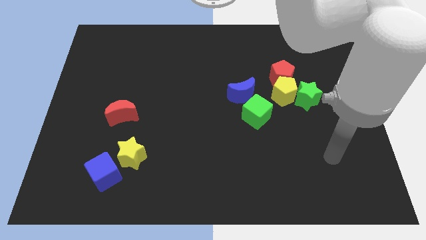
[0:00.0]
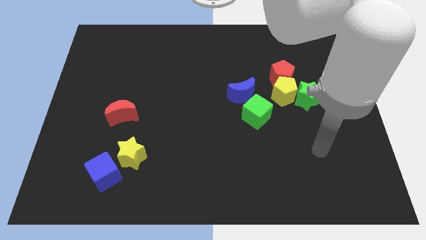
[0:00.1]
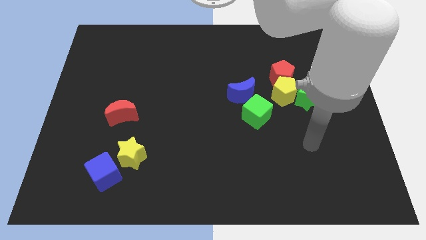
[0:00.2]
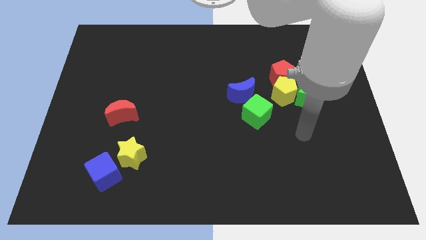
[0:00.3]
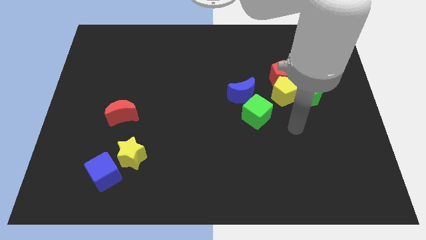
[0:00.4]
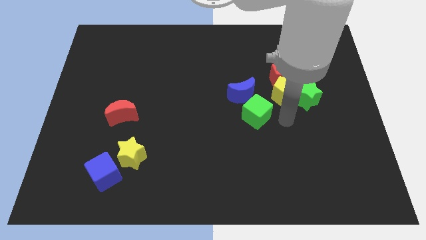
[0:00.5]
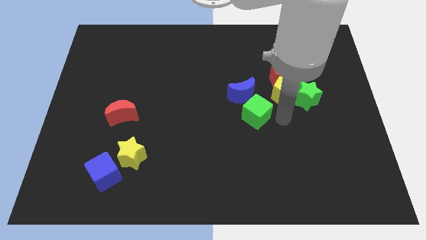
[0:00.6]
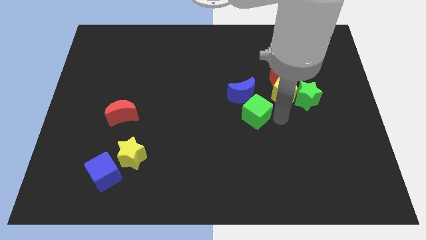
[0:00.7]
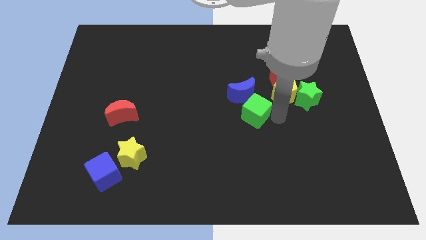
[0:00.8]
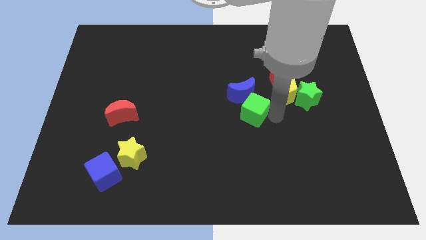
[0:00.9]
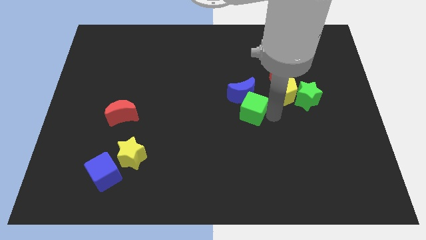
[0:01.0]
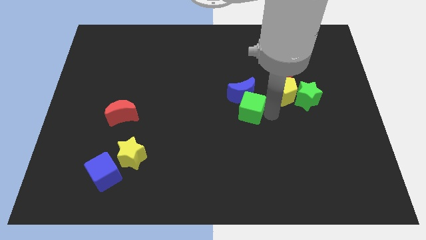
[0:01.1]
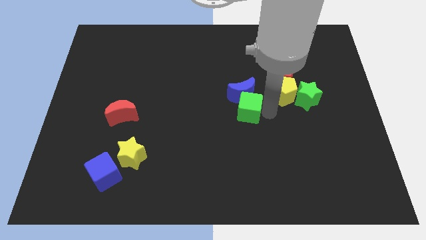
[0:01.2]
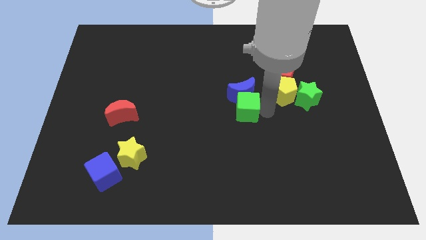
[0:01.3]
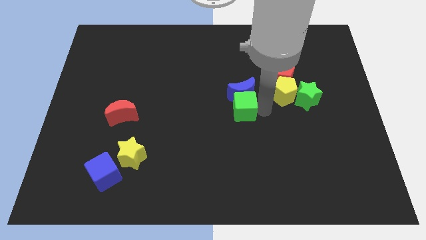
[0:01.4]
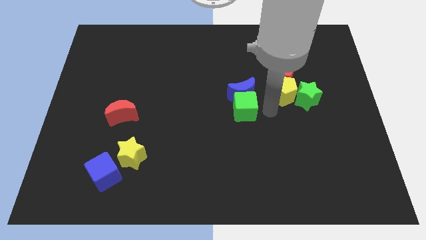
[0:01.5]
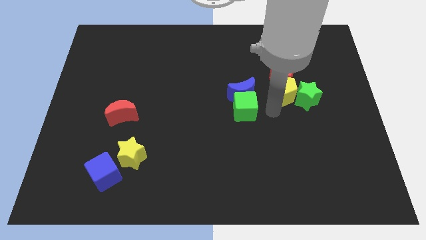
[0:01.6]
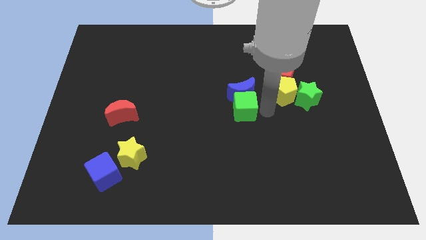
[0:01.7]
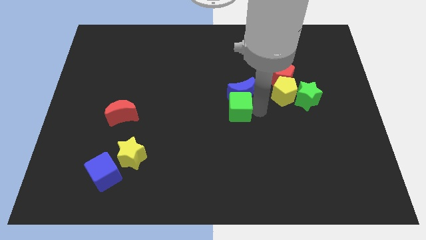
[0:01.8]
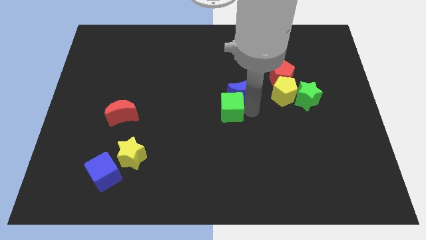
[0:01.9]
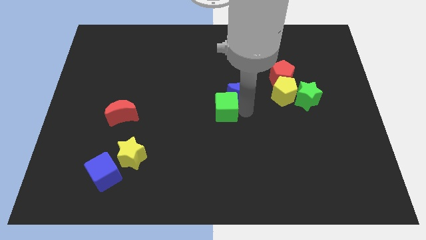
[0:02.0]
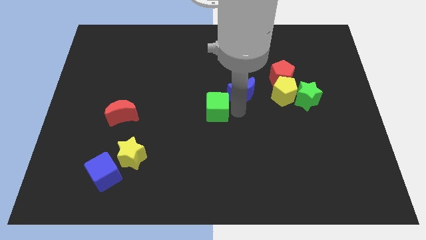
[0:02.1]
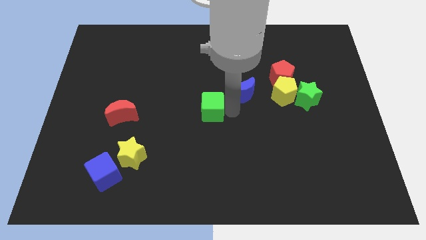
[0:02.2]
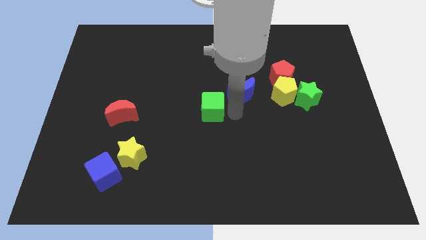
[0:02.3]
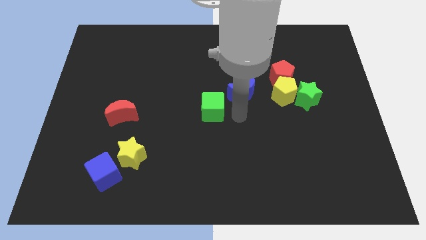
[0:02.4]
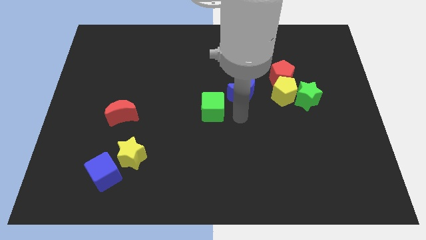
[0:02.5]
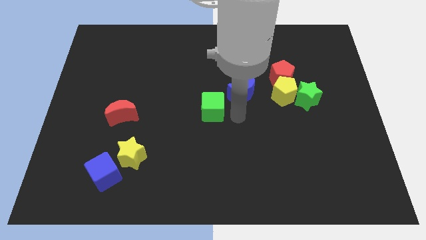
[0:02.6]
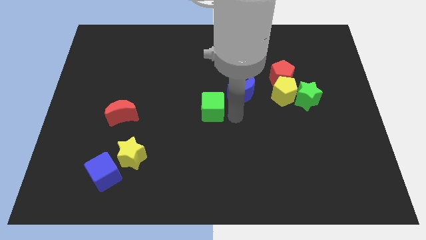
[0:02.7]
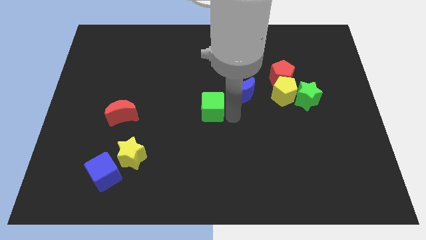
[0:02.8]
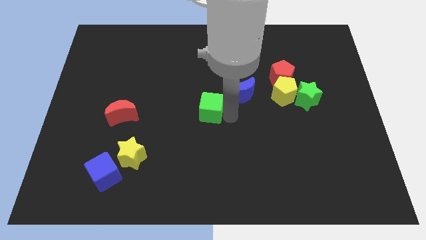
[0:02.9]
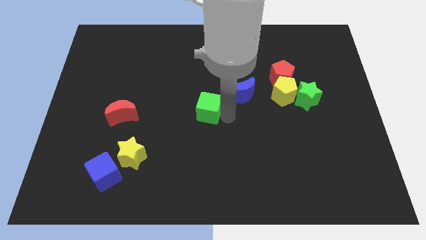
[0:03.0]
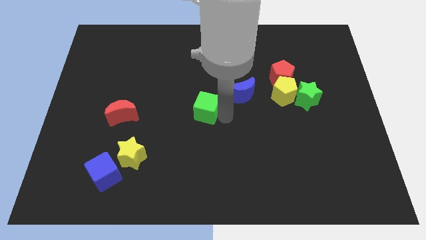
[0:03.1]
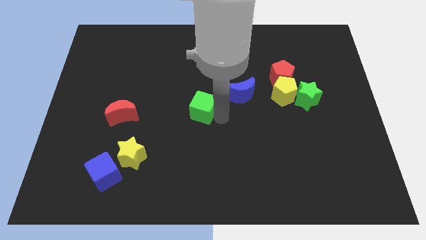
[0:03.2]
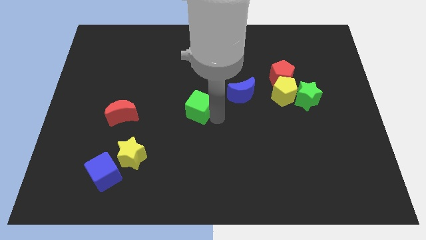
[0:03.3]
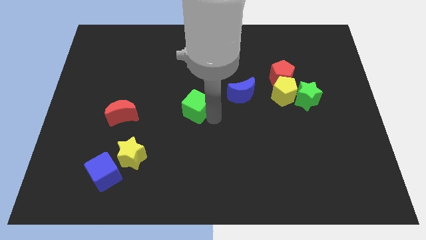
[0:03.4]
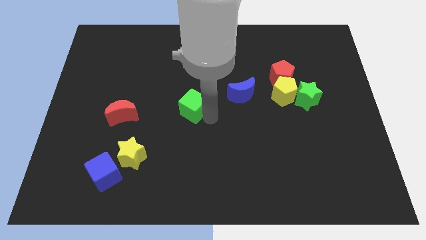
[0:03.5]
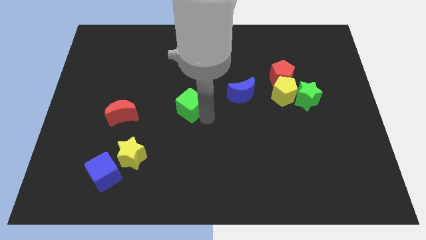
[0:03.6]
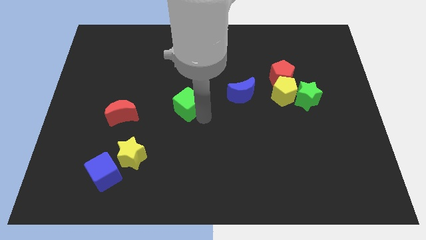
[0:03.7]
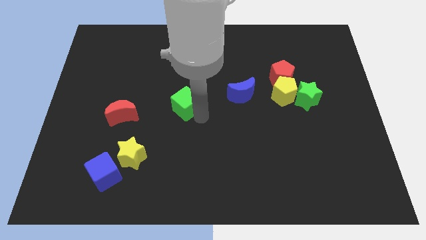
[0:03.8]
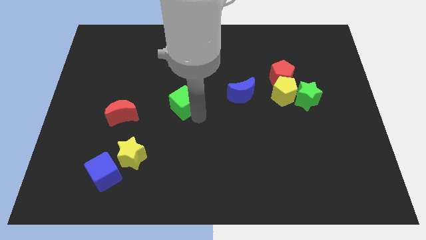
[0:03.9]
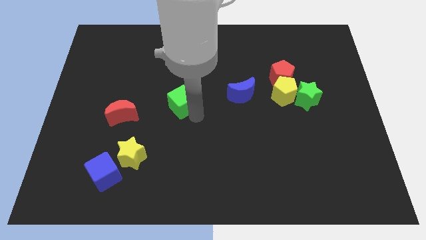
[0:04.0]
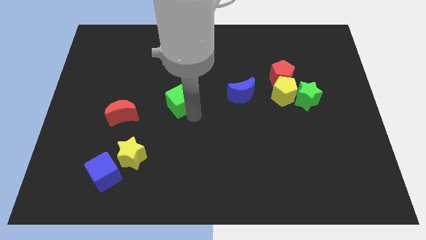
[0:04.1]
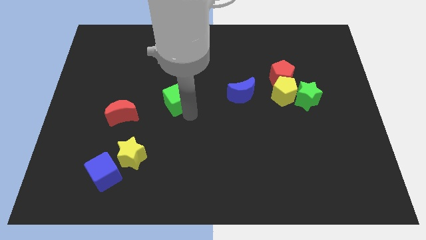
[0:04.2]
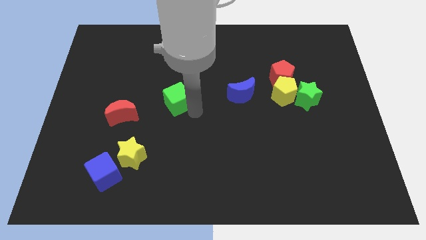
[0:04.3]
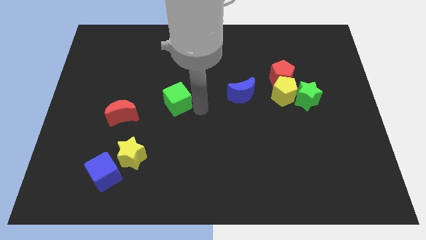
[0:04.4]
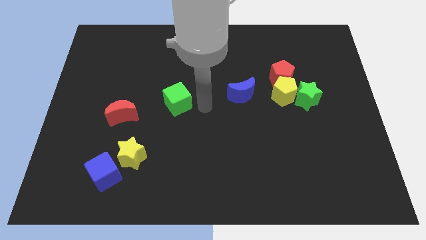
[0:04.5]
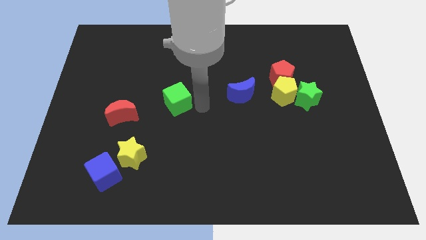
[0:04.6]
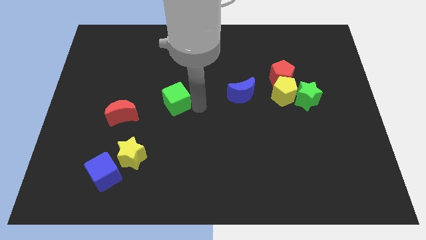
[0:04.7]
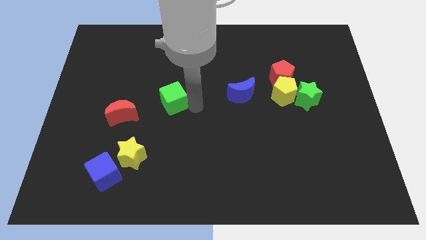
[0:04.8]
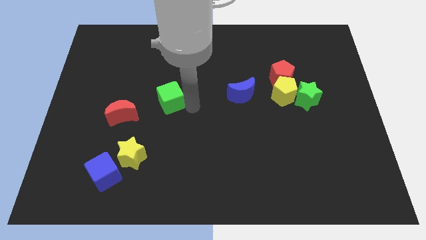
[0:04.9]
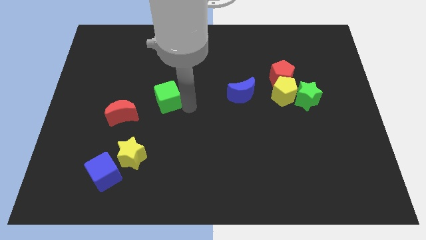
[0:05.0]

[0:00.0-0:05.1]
push the green cube to the top right side of the red moon

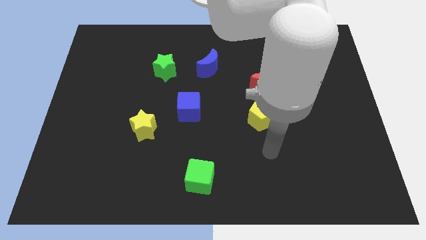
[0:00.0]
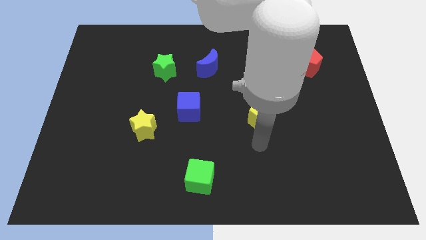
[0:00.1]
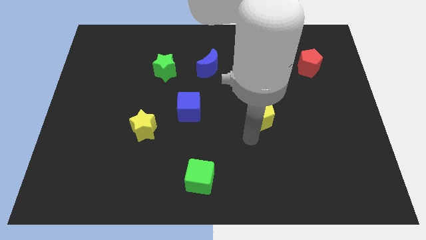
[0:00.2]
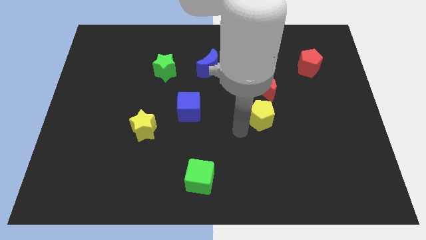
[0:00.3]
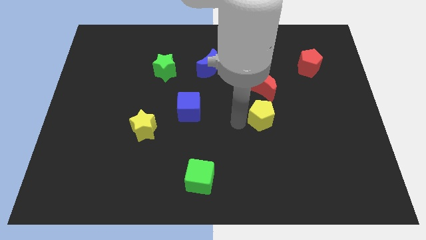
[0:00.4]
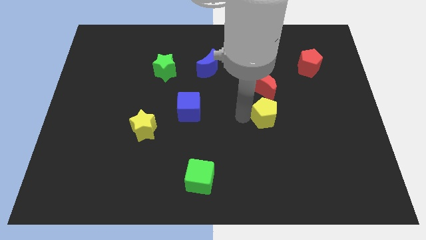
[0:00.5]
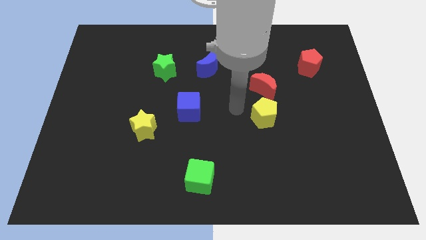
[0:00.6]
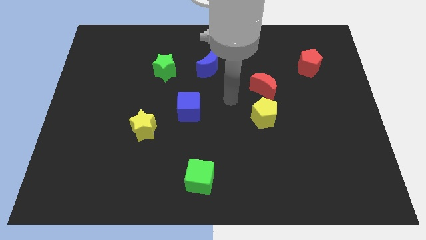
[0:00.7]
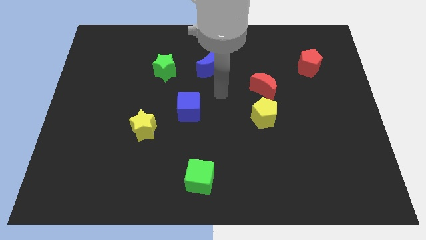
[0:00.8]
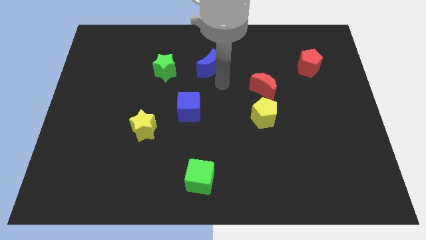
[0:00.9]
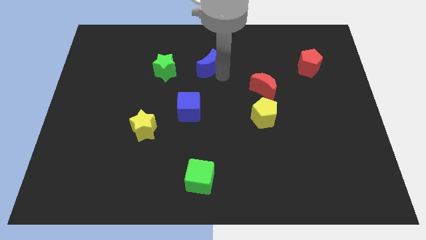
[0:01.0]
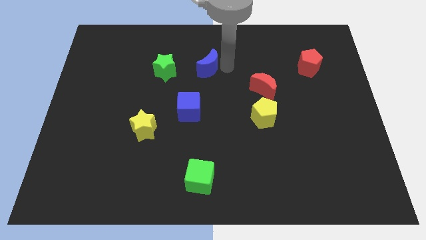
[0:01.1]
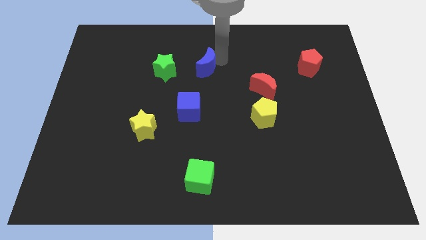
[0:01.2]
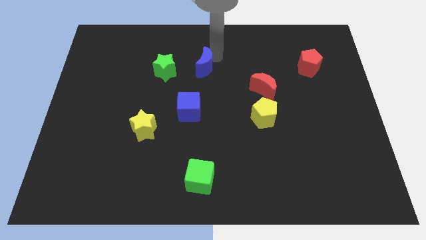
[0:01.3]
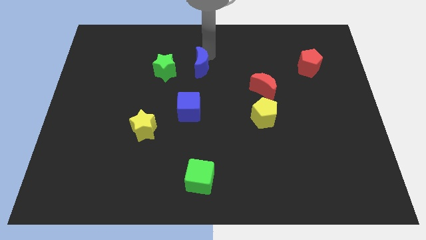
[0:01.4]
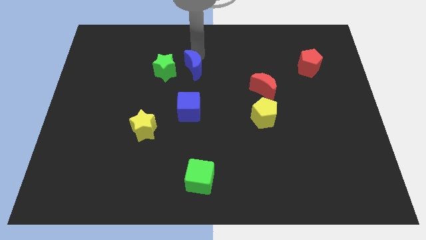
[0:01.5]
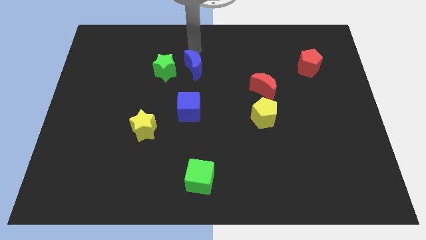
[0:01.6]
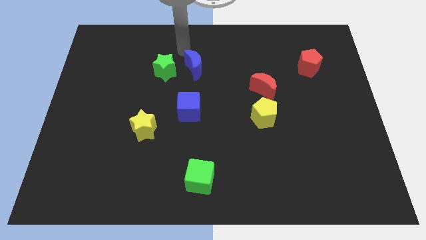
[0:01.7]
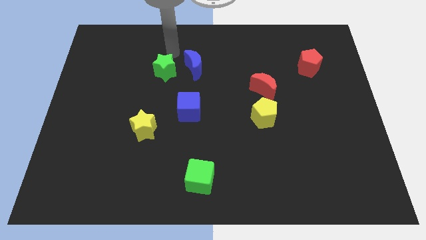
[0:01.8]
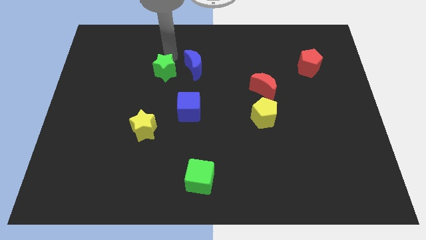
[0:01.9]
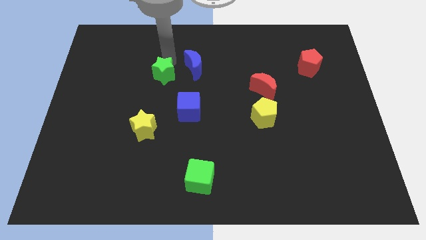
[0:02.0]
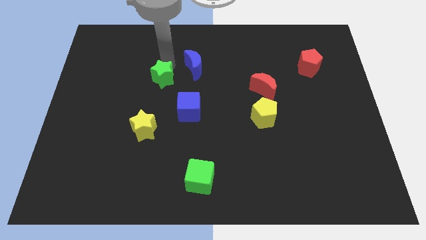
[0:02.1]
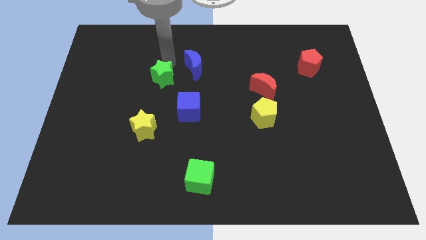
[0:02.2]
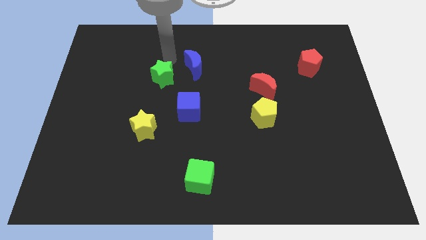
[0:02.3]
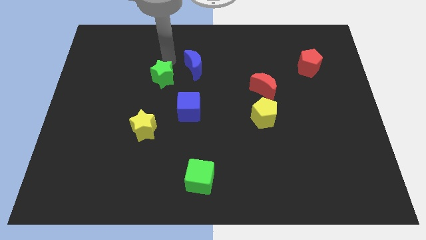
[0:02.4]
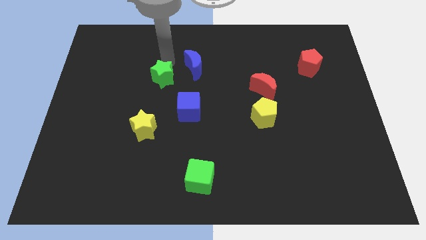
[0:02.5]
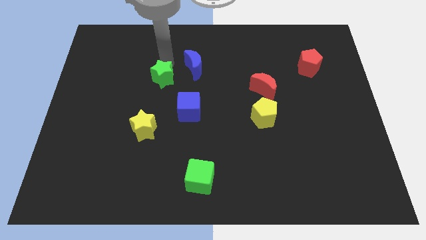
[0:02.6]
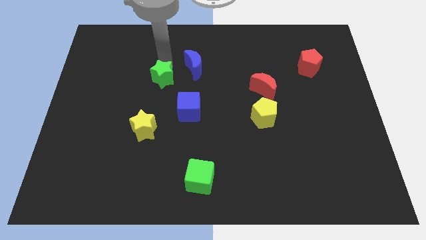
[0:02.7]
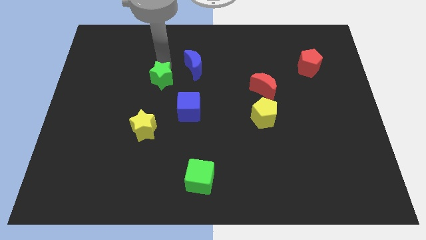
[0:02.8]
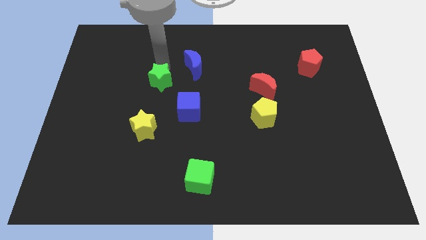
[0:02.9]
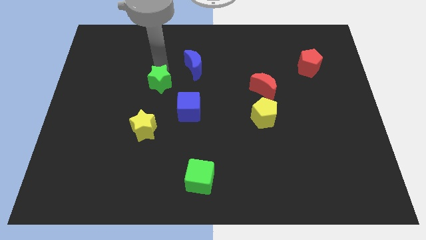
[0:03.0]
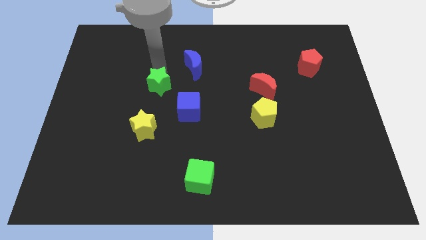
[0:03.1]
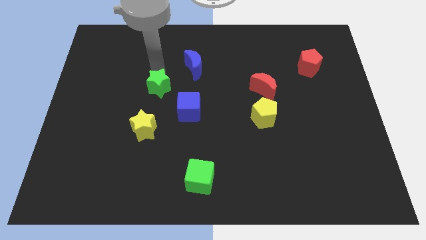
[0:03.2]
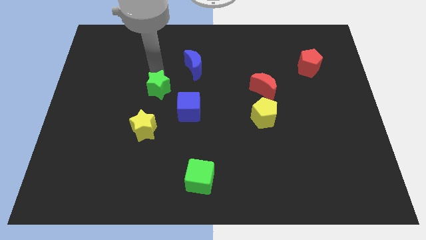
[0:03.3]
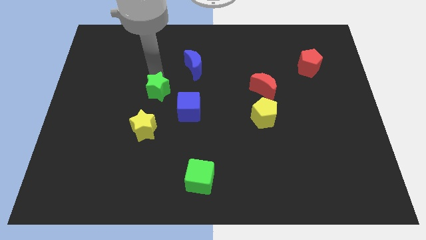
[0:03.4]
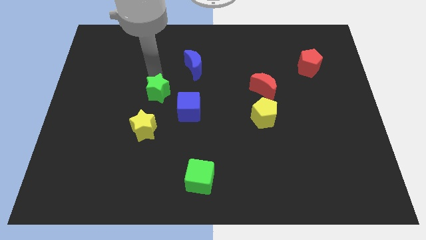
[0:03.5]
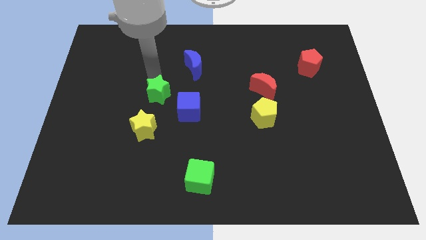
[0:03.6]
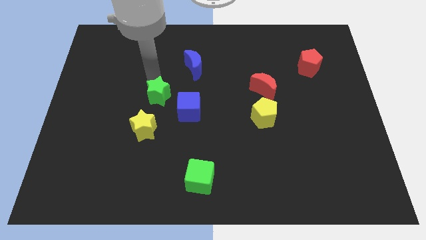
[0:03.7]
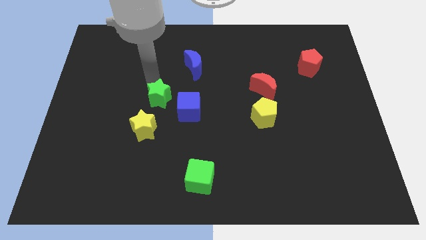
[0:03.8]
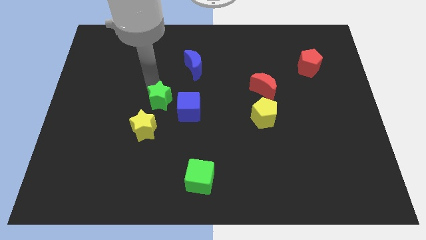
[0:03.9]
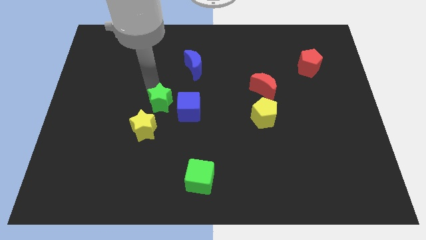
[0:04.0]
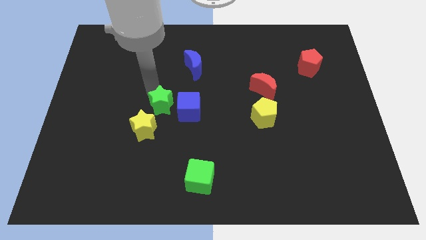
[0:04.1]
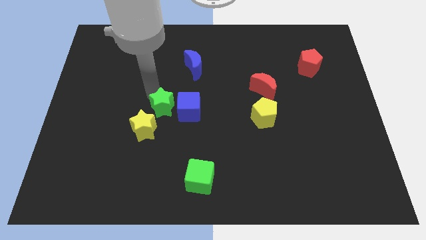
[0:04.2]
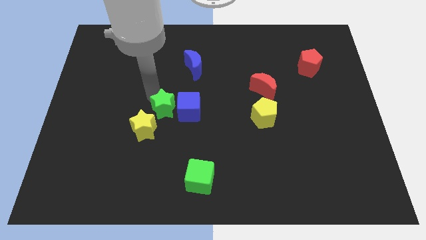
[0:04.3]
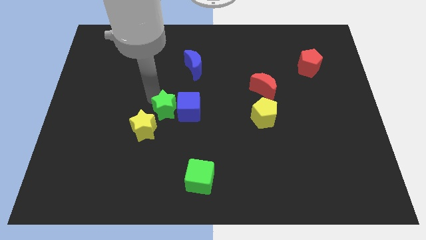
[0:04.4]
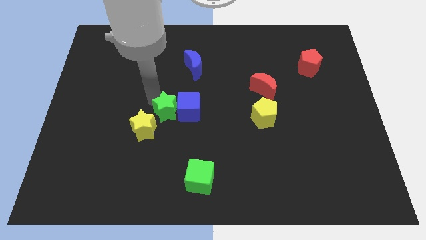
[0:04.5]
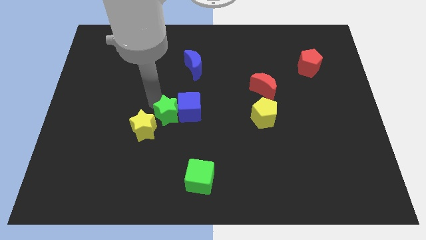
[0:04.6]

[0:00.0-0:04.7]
slide the green star just right of the yellow star
